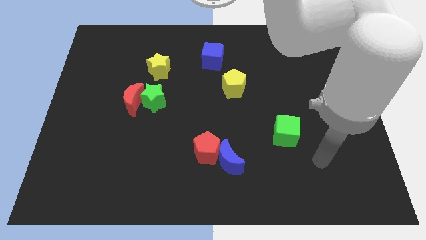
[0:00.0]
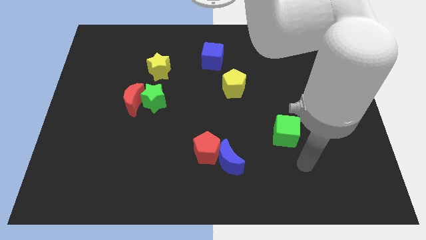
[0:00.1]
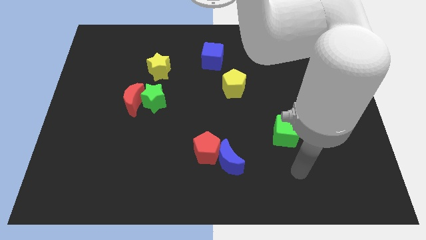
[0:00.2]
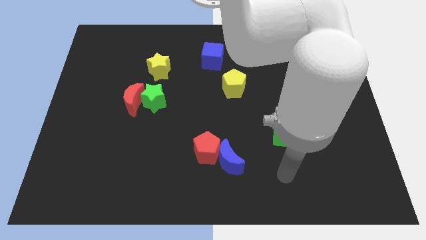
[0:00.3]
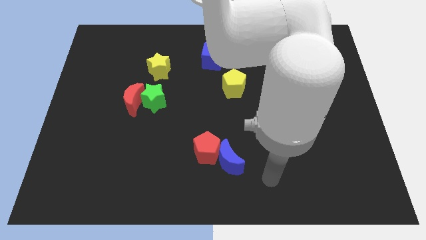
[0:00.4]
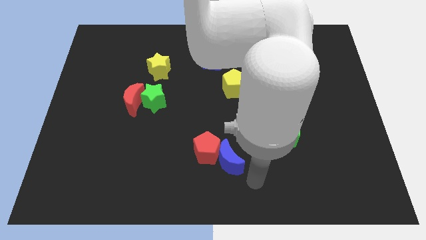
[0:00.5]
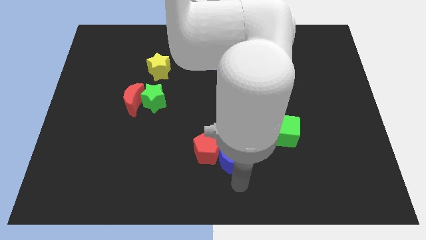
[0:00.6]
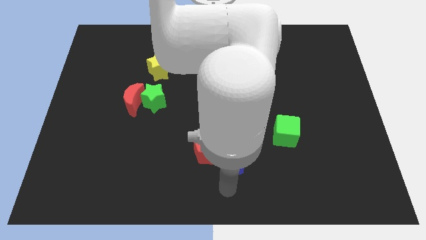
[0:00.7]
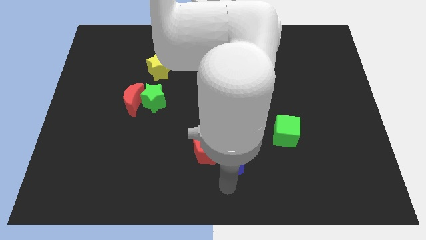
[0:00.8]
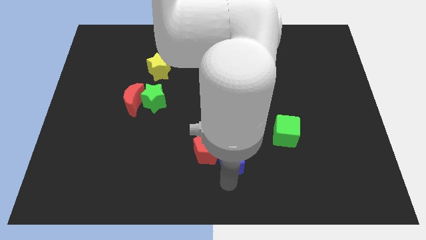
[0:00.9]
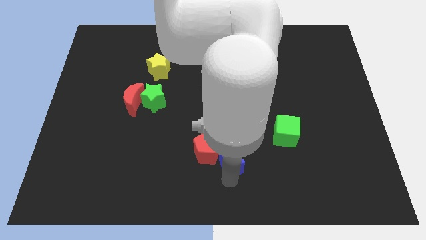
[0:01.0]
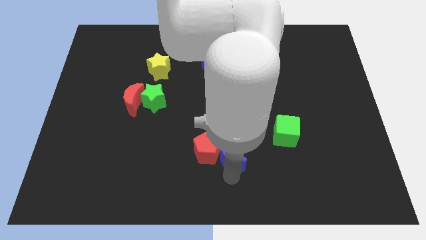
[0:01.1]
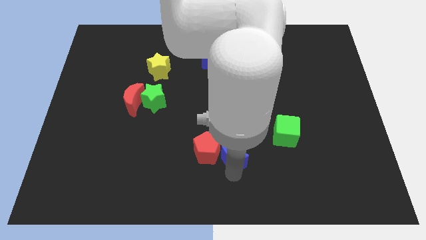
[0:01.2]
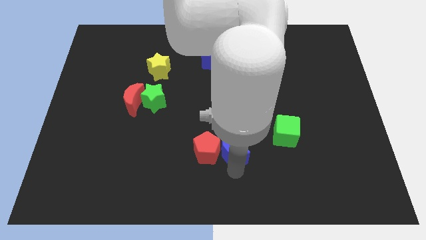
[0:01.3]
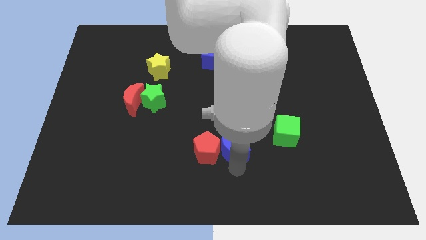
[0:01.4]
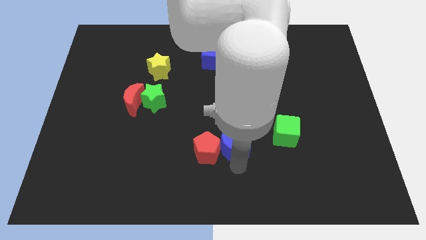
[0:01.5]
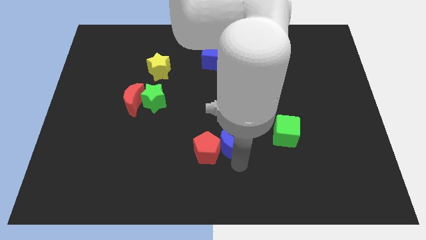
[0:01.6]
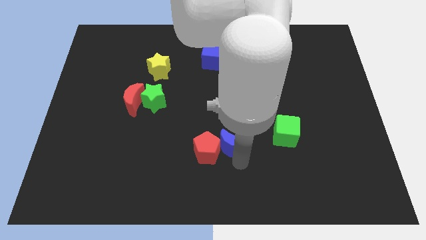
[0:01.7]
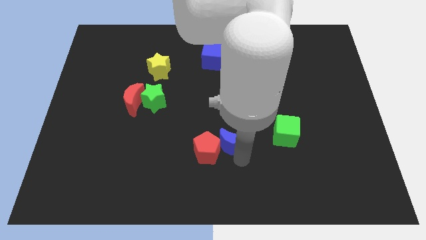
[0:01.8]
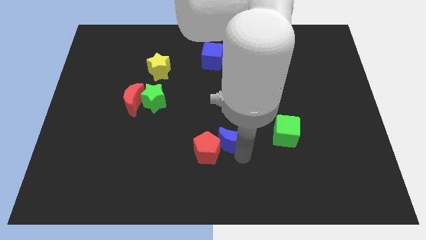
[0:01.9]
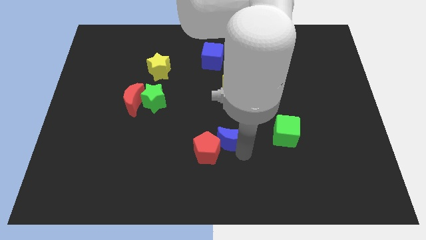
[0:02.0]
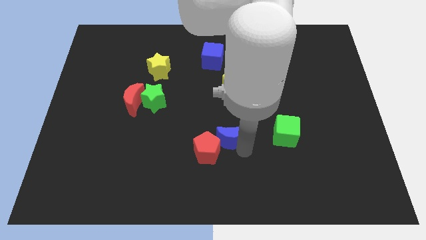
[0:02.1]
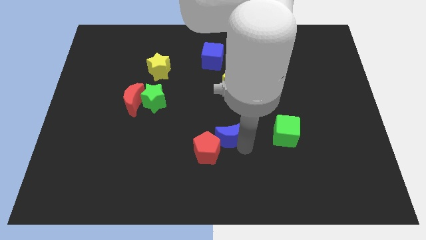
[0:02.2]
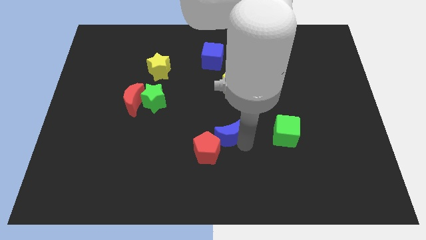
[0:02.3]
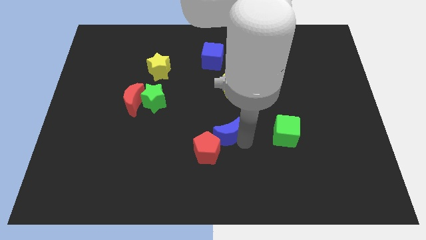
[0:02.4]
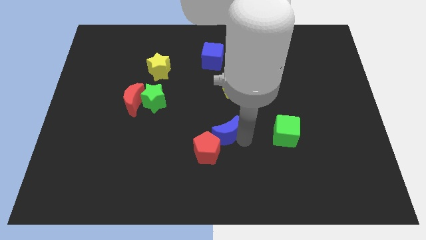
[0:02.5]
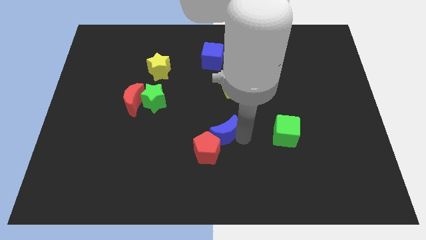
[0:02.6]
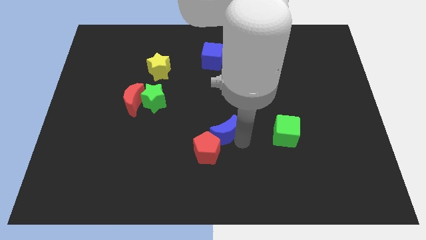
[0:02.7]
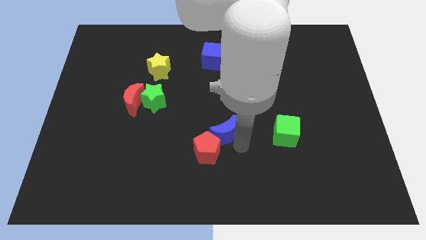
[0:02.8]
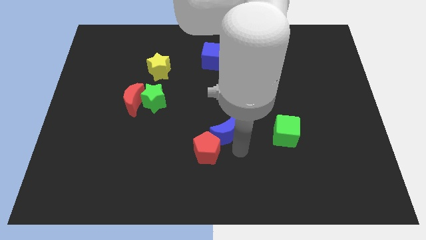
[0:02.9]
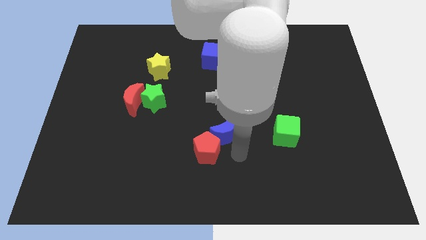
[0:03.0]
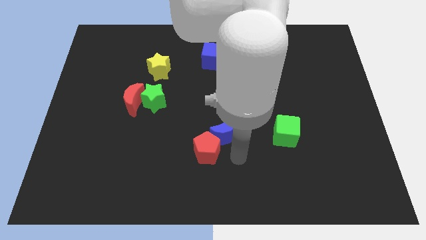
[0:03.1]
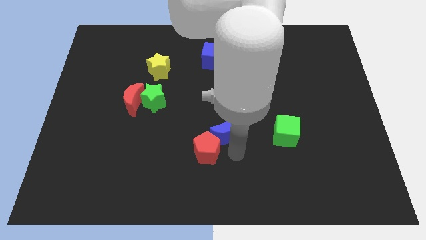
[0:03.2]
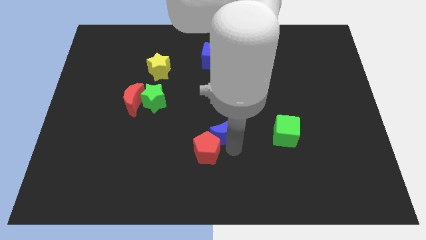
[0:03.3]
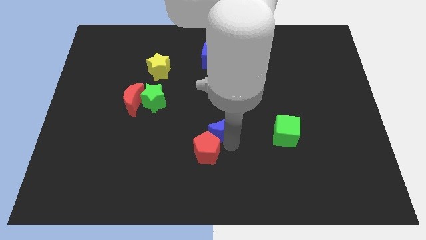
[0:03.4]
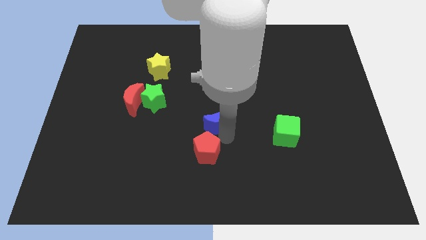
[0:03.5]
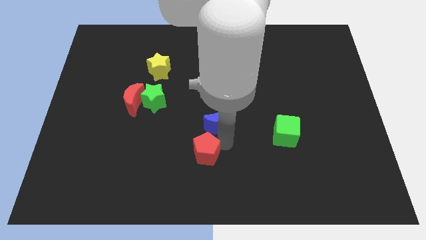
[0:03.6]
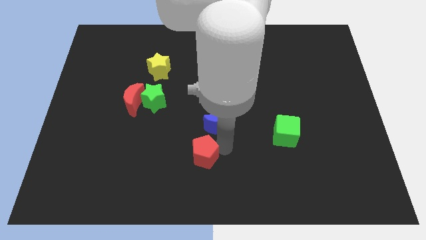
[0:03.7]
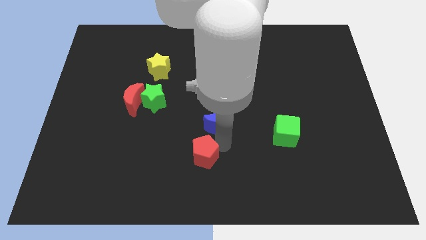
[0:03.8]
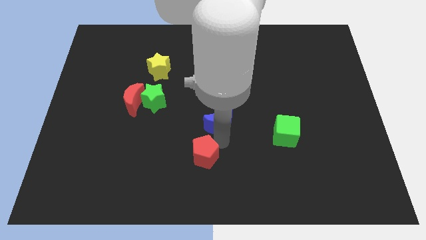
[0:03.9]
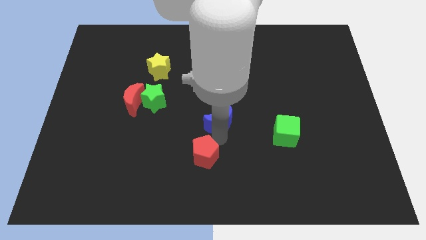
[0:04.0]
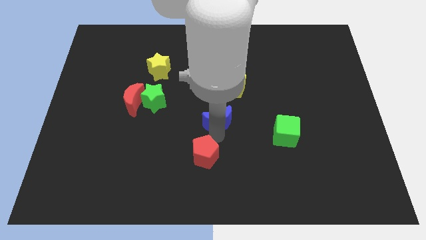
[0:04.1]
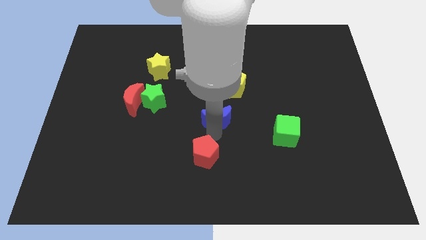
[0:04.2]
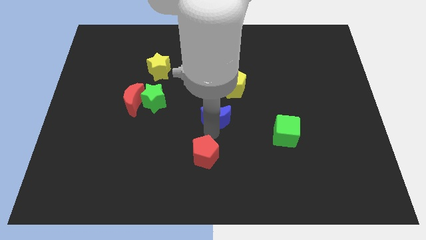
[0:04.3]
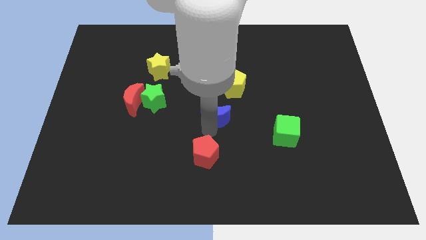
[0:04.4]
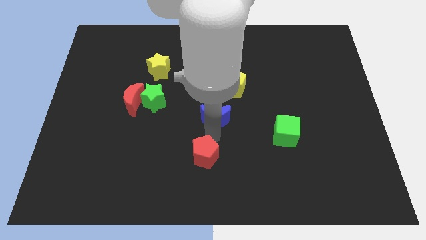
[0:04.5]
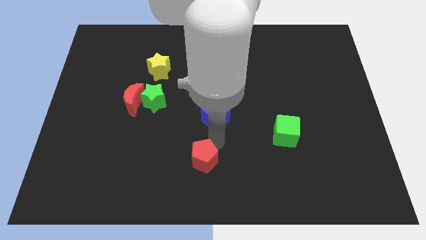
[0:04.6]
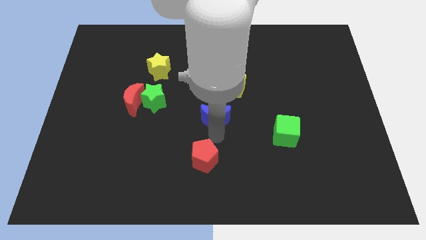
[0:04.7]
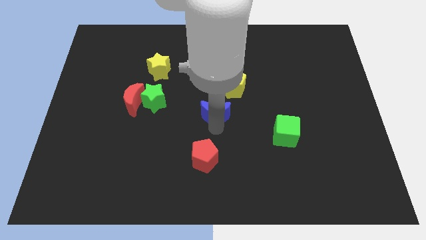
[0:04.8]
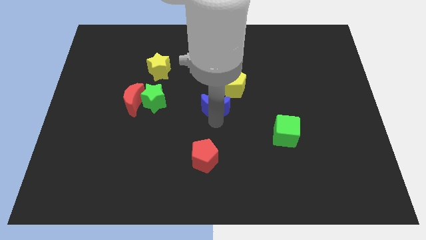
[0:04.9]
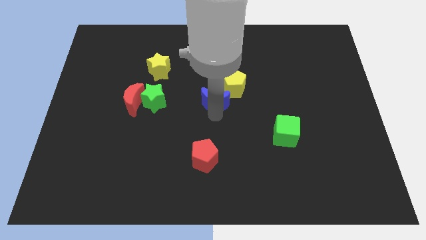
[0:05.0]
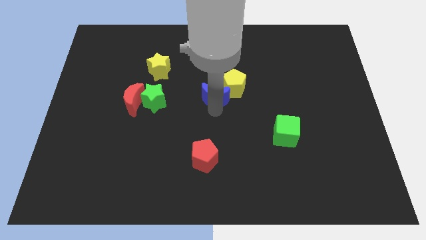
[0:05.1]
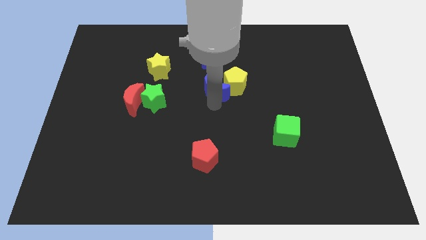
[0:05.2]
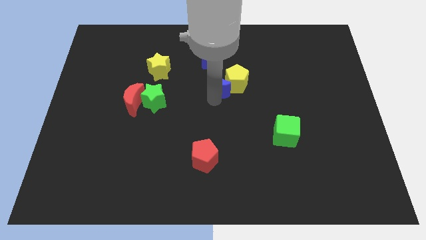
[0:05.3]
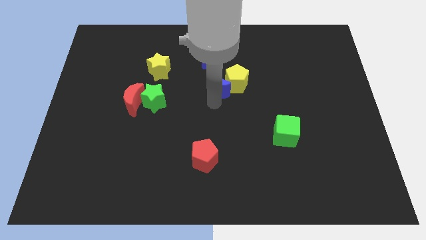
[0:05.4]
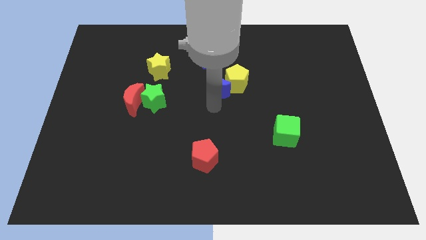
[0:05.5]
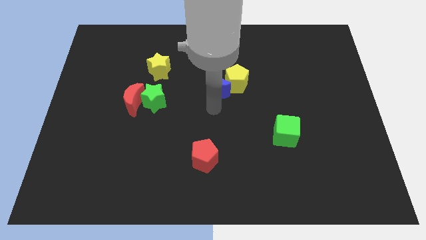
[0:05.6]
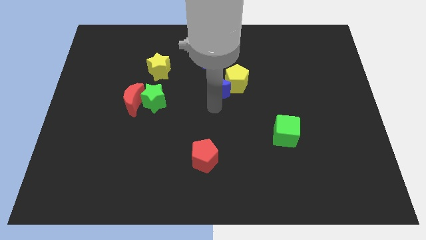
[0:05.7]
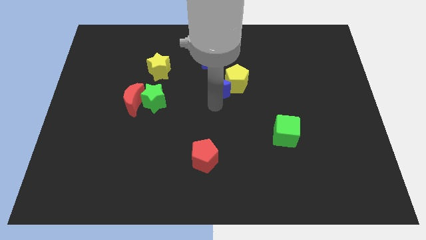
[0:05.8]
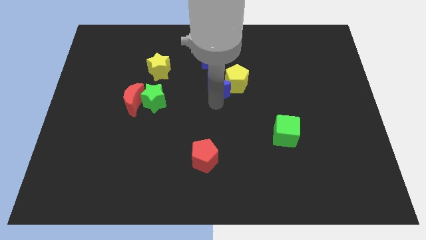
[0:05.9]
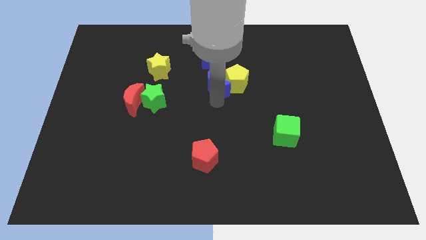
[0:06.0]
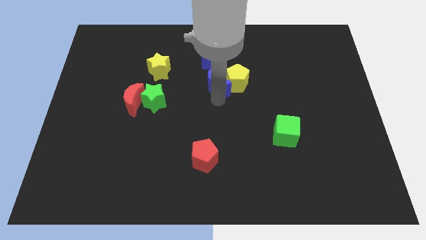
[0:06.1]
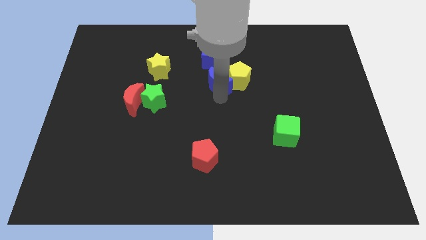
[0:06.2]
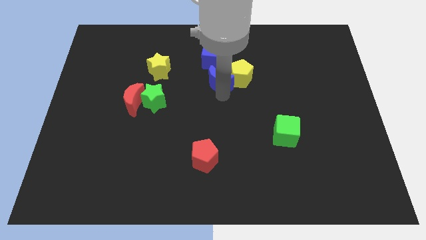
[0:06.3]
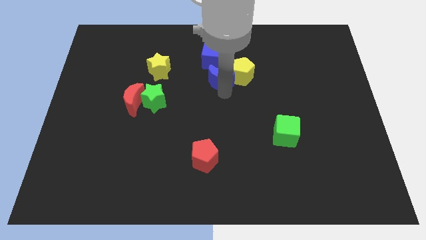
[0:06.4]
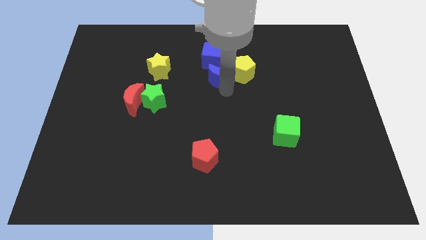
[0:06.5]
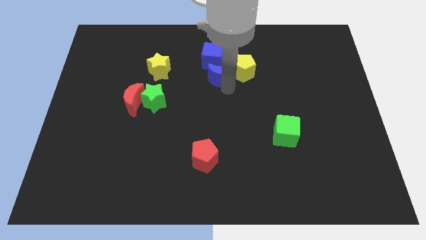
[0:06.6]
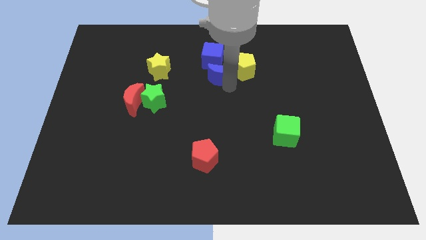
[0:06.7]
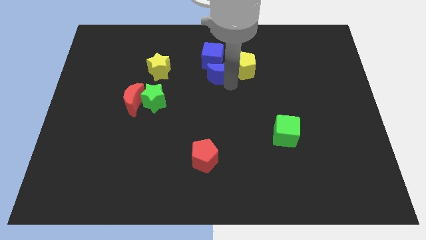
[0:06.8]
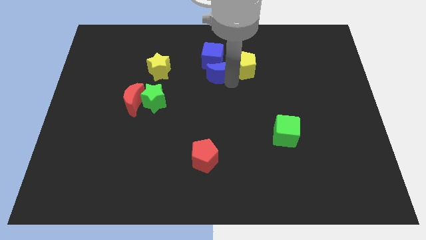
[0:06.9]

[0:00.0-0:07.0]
move the blue moon towards the blue cube
